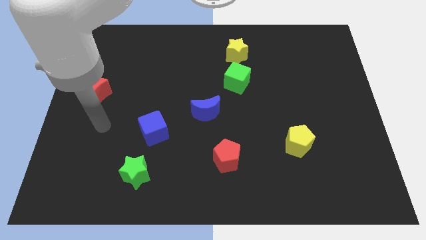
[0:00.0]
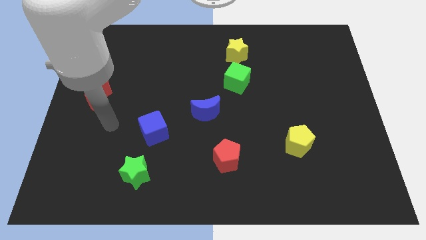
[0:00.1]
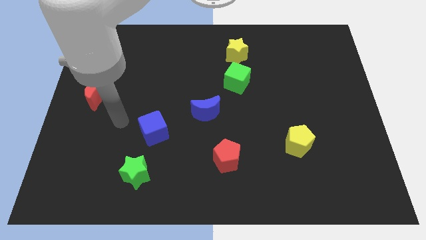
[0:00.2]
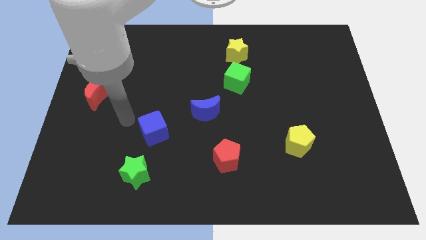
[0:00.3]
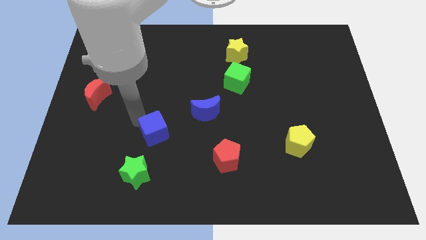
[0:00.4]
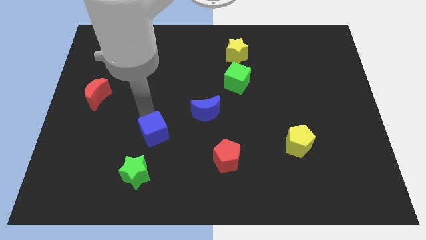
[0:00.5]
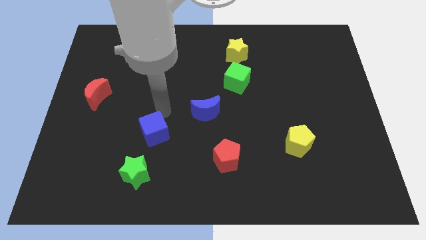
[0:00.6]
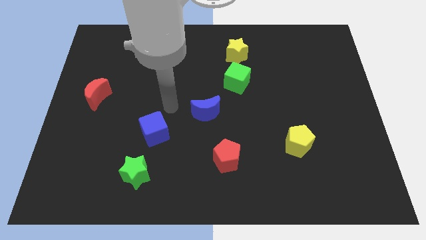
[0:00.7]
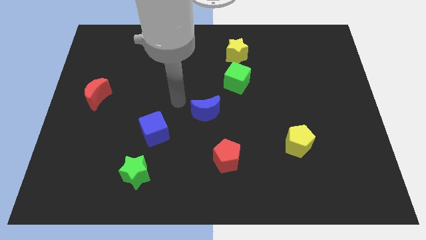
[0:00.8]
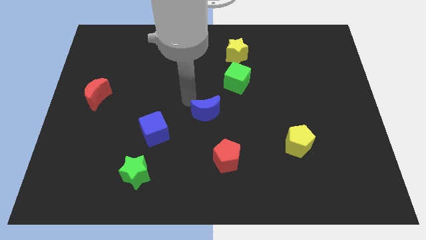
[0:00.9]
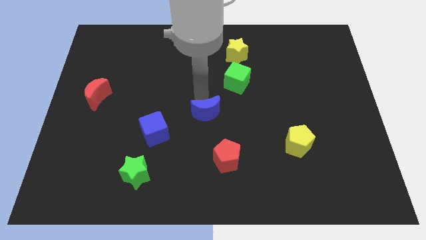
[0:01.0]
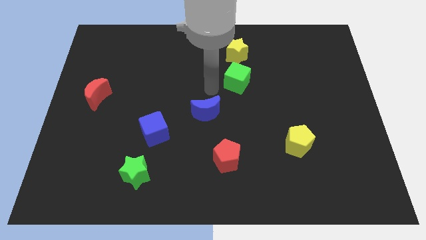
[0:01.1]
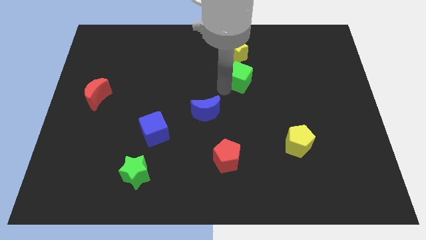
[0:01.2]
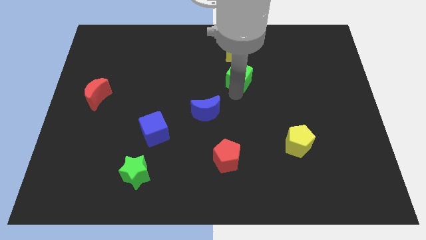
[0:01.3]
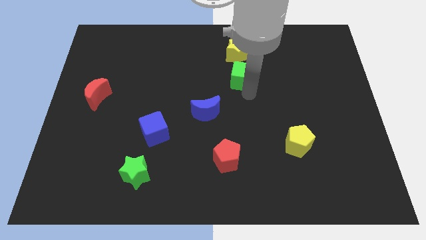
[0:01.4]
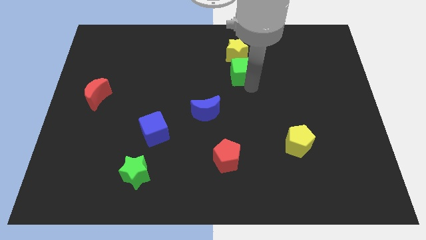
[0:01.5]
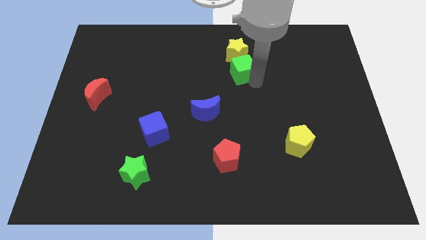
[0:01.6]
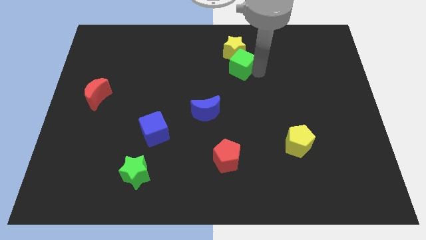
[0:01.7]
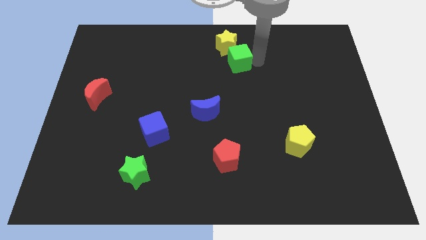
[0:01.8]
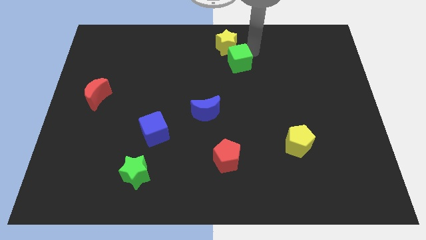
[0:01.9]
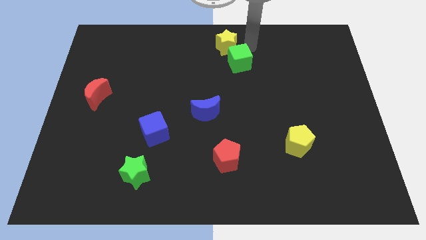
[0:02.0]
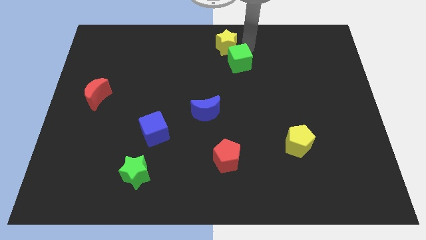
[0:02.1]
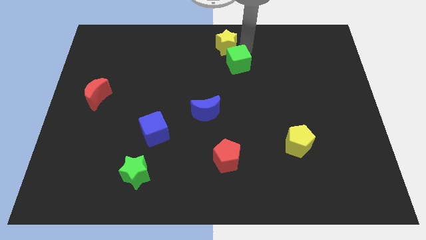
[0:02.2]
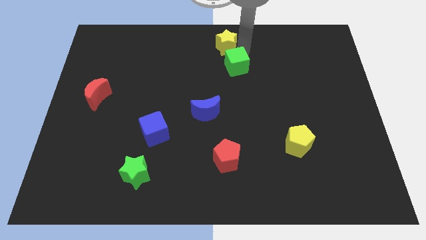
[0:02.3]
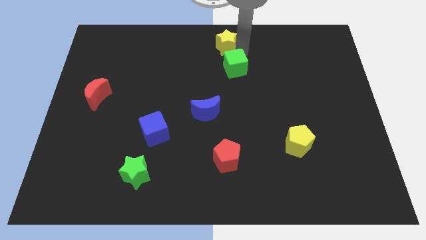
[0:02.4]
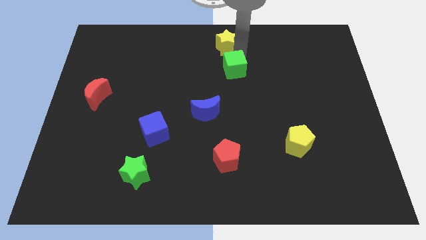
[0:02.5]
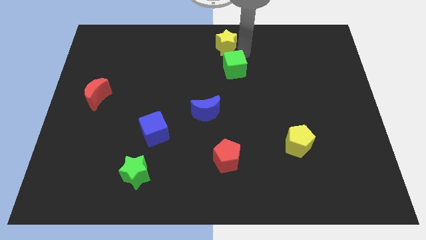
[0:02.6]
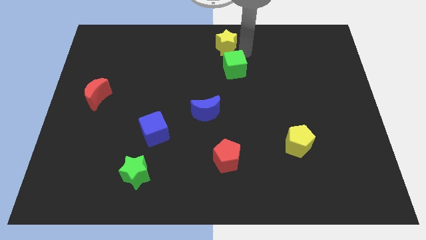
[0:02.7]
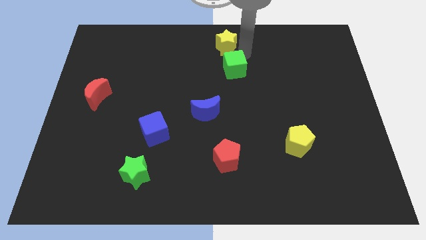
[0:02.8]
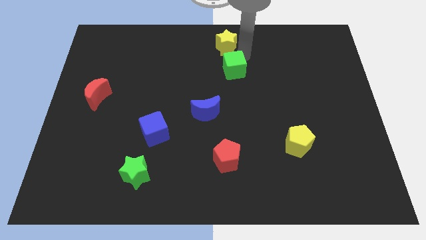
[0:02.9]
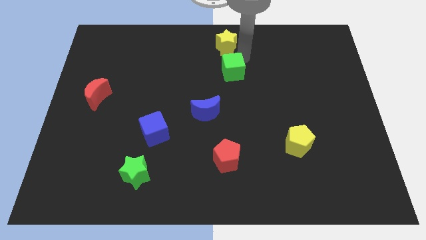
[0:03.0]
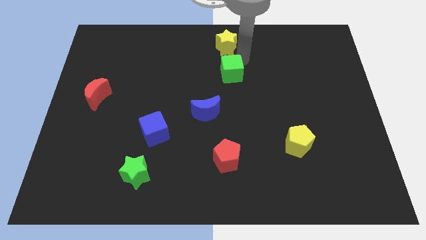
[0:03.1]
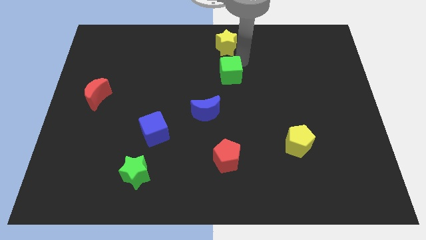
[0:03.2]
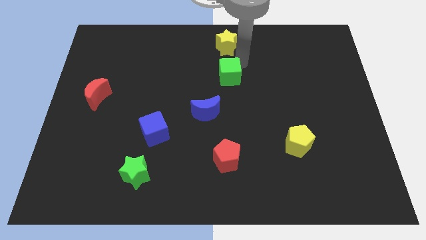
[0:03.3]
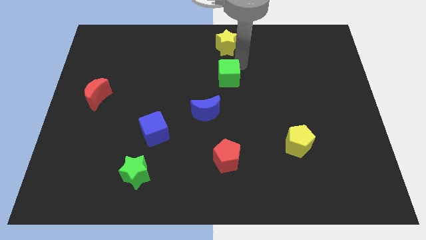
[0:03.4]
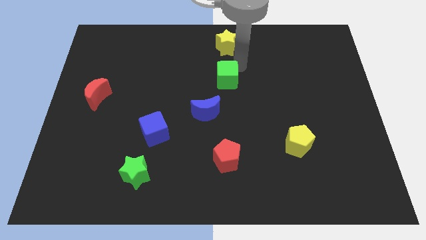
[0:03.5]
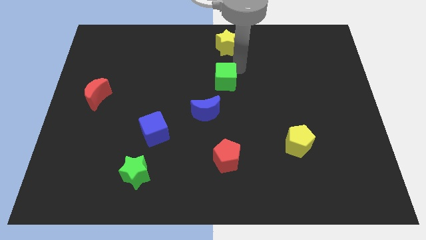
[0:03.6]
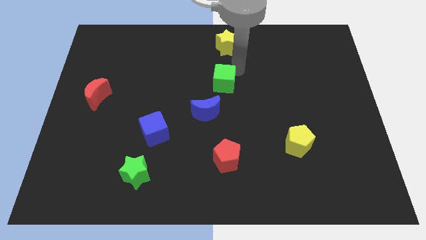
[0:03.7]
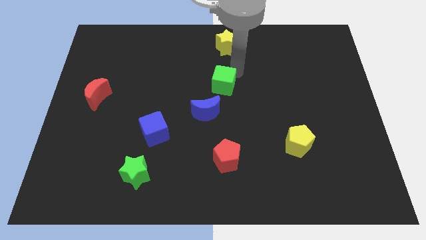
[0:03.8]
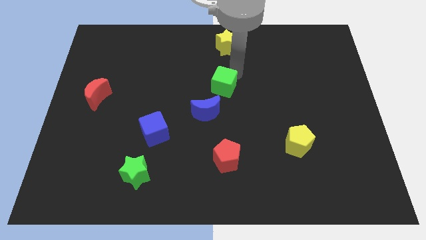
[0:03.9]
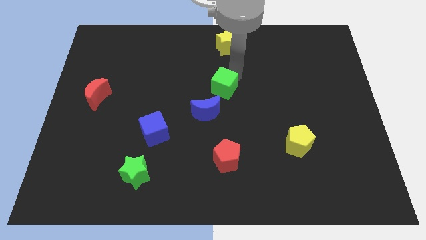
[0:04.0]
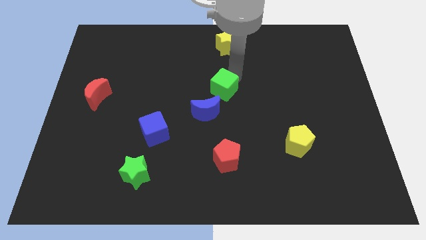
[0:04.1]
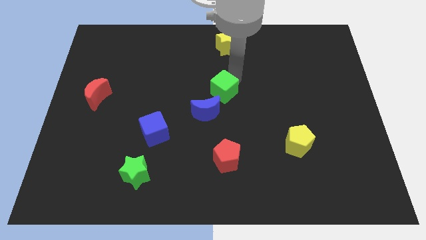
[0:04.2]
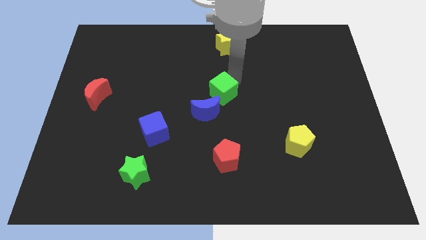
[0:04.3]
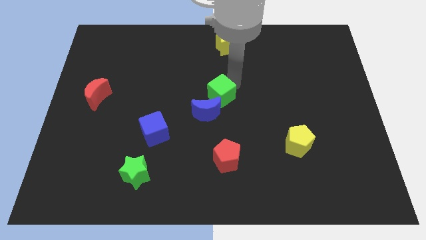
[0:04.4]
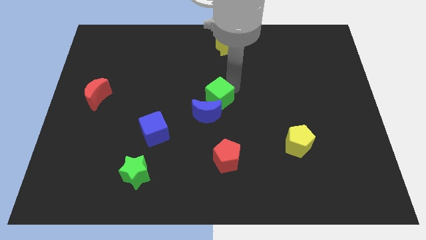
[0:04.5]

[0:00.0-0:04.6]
slide the green cube downwards and to the left slightly

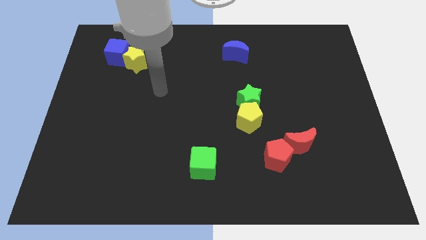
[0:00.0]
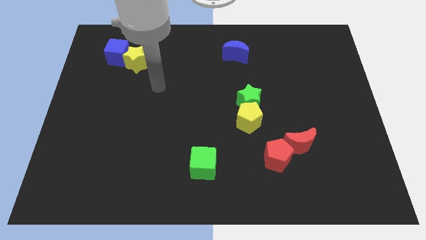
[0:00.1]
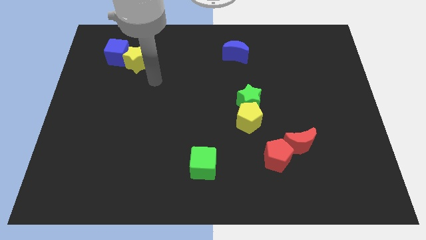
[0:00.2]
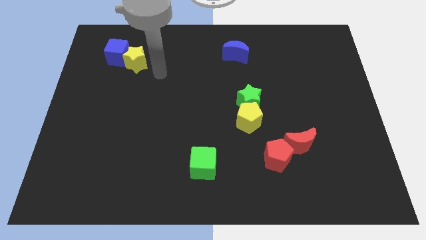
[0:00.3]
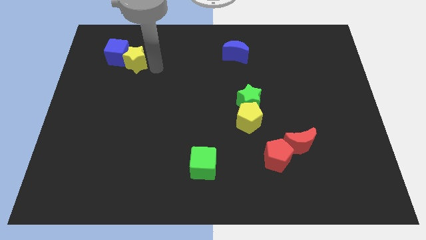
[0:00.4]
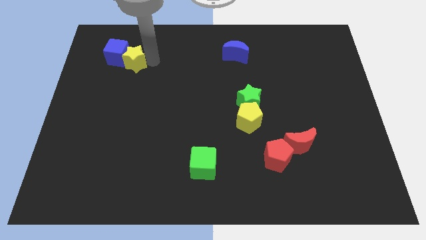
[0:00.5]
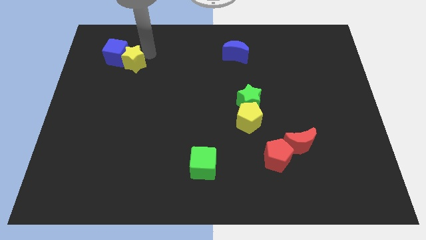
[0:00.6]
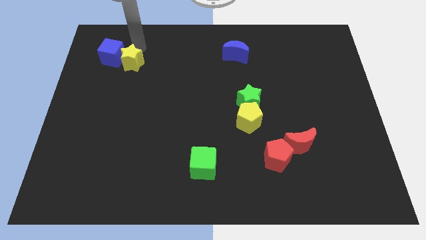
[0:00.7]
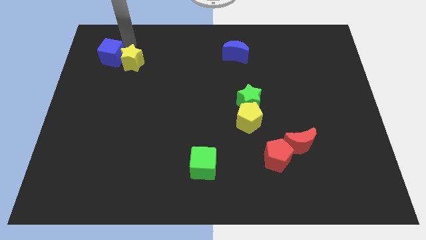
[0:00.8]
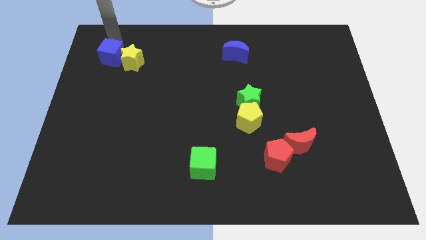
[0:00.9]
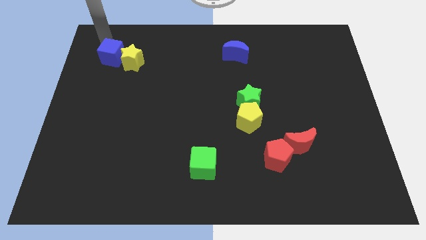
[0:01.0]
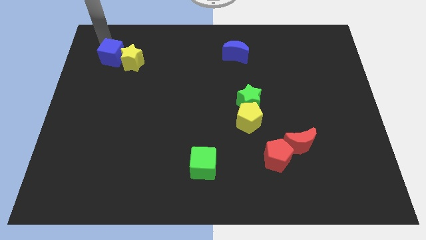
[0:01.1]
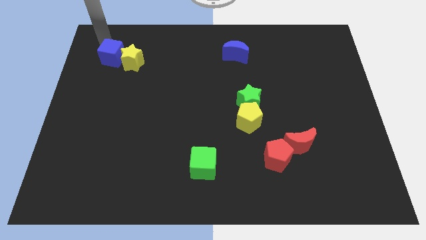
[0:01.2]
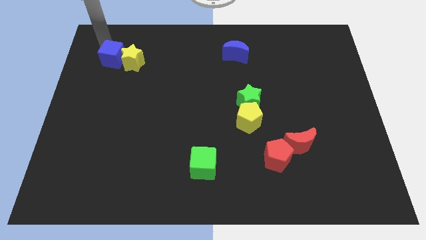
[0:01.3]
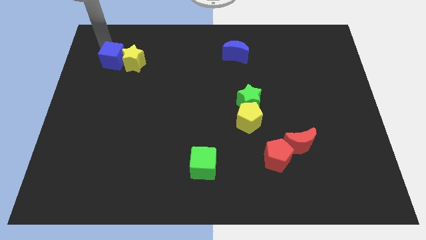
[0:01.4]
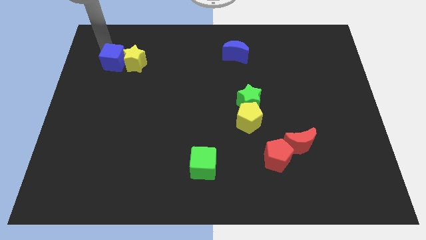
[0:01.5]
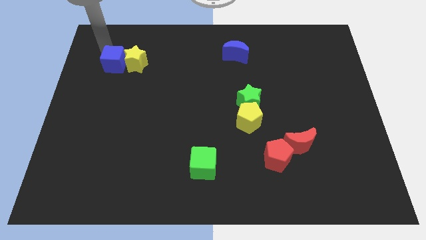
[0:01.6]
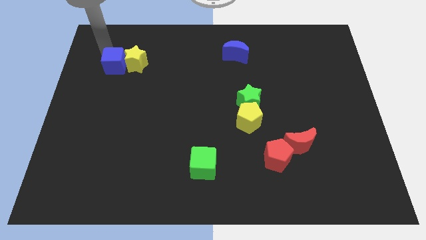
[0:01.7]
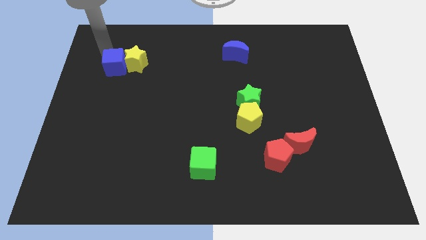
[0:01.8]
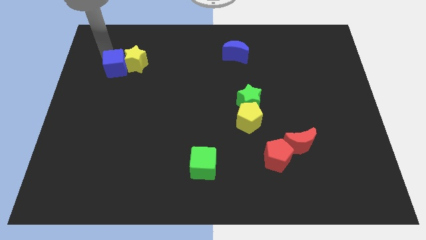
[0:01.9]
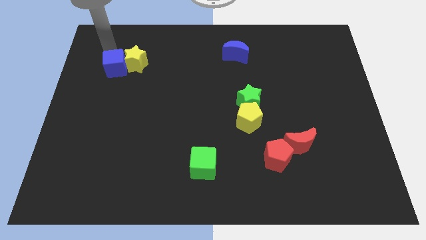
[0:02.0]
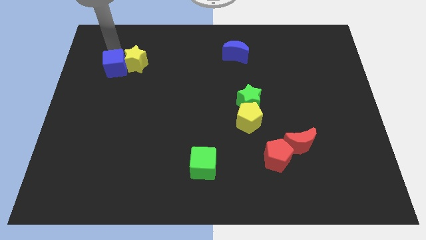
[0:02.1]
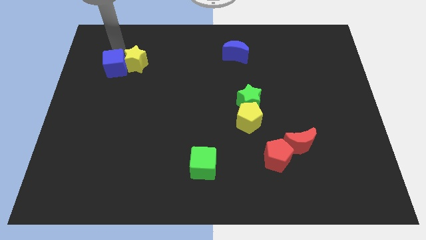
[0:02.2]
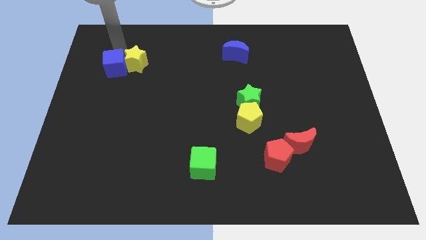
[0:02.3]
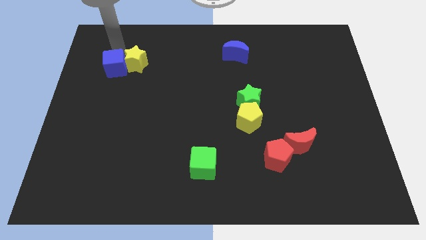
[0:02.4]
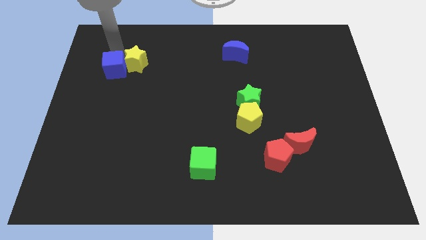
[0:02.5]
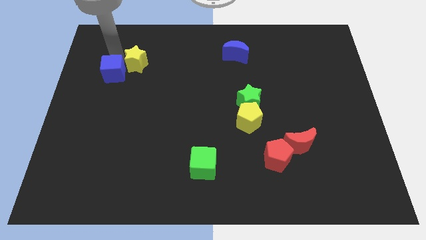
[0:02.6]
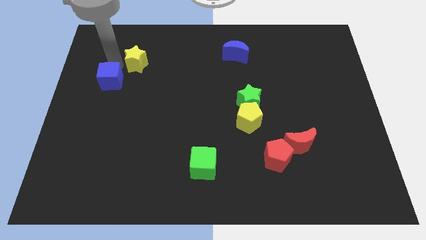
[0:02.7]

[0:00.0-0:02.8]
move the blue cube a little bit down

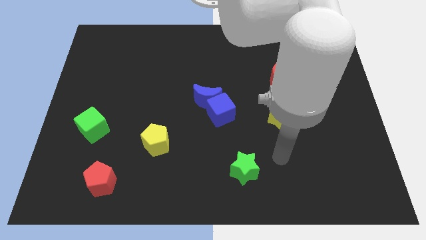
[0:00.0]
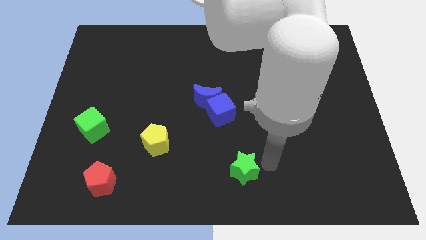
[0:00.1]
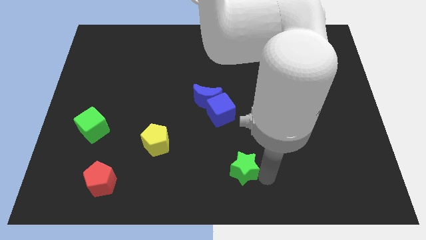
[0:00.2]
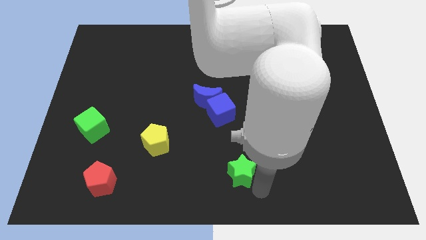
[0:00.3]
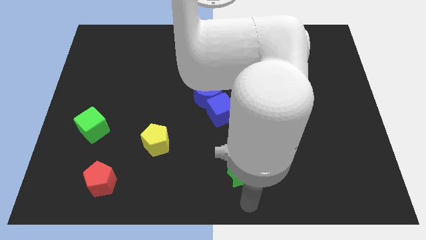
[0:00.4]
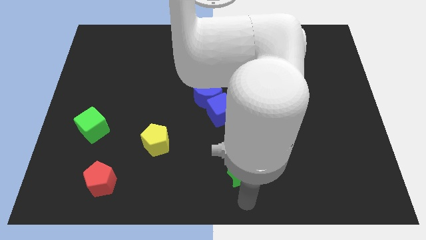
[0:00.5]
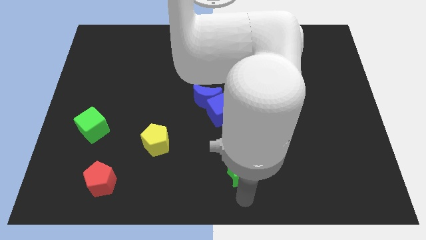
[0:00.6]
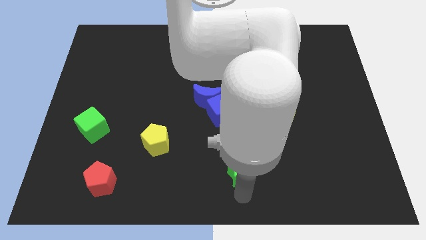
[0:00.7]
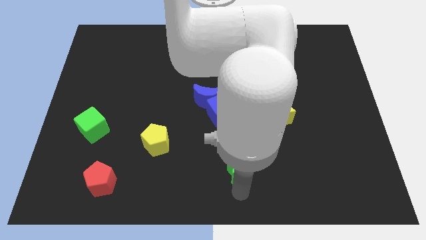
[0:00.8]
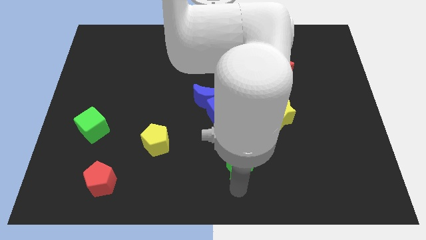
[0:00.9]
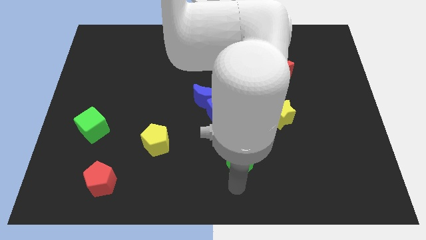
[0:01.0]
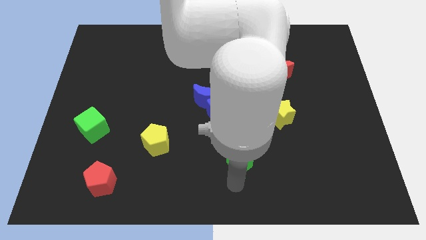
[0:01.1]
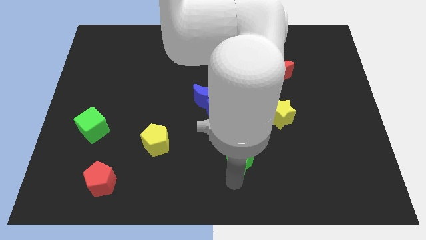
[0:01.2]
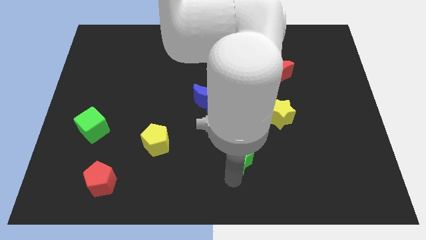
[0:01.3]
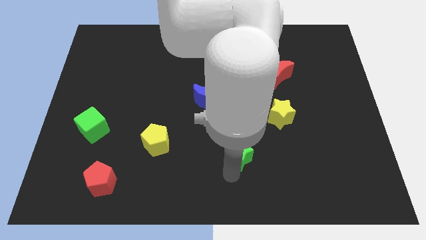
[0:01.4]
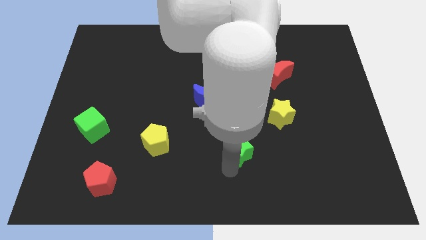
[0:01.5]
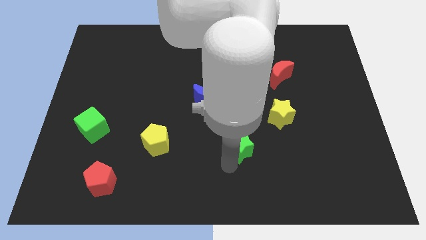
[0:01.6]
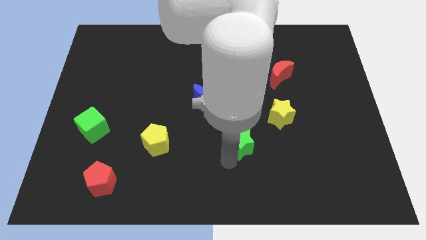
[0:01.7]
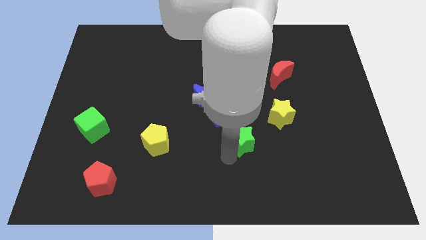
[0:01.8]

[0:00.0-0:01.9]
push the green star up a little bit
